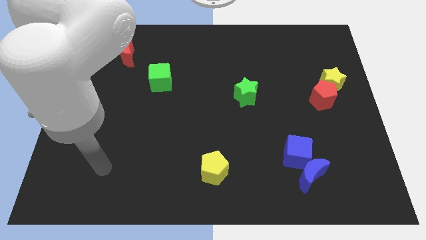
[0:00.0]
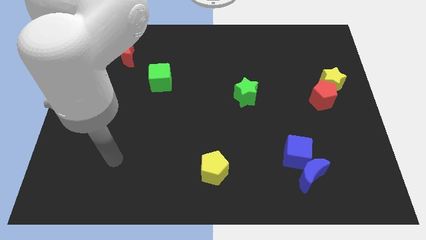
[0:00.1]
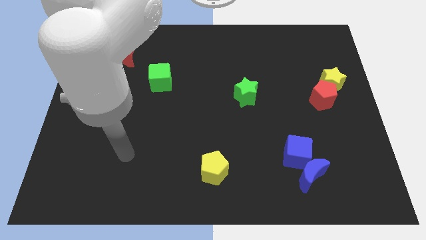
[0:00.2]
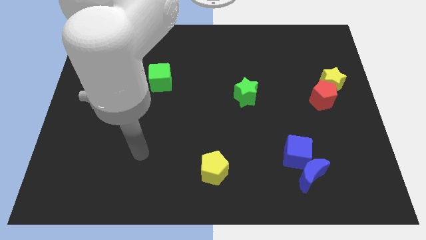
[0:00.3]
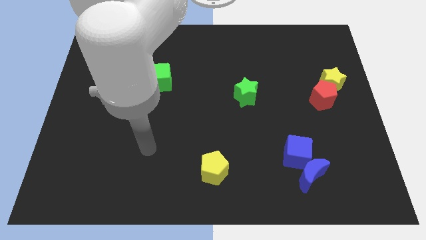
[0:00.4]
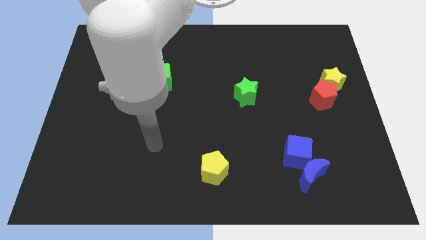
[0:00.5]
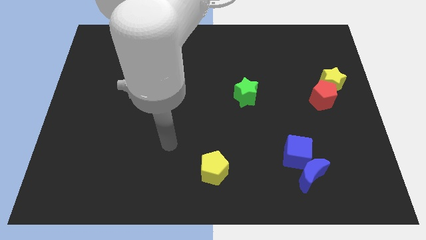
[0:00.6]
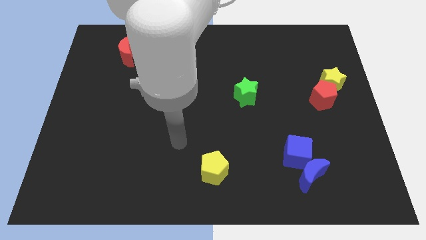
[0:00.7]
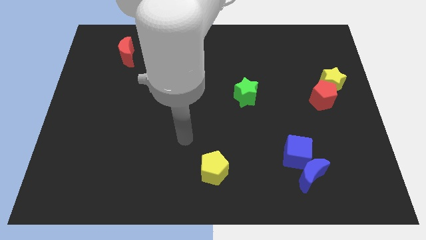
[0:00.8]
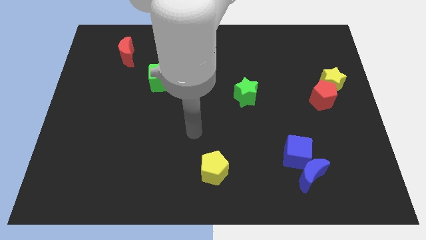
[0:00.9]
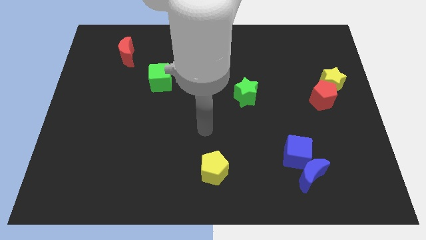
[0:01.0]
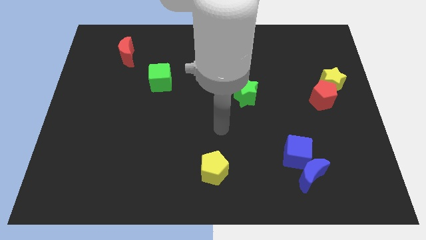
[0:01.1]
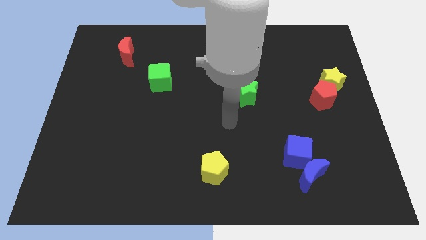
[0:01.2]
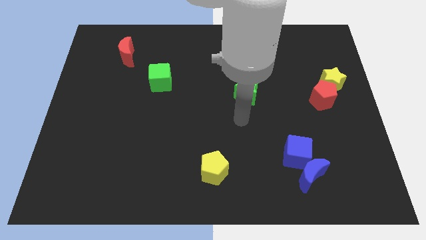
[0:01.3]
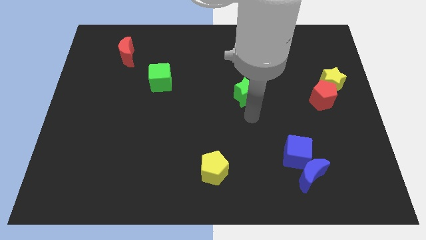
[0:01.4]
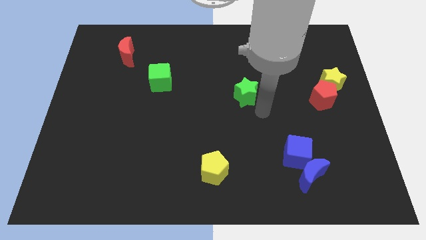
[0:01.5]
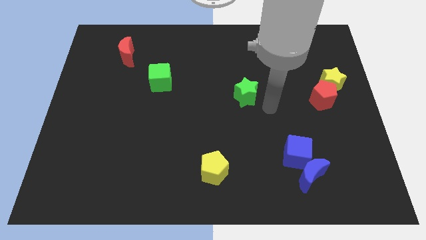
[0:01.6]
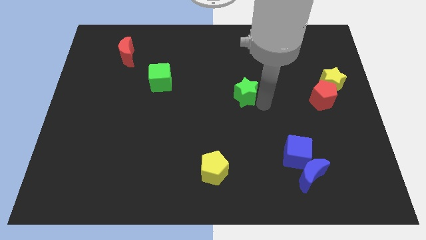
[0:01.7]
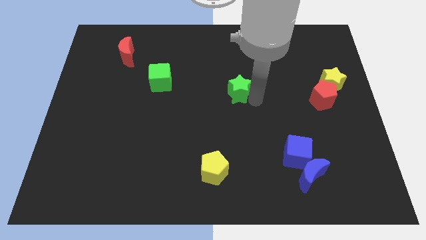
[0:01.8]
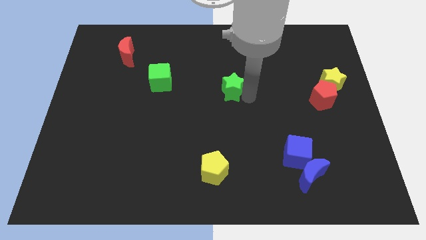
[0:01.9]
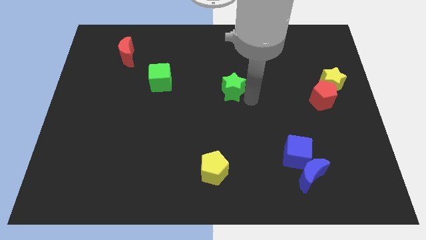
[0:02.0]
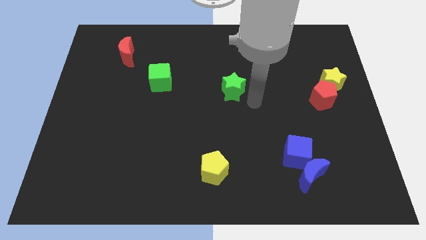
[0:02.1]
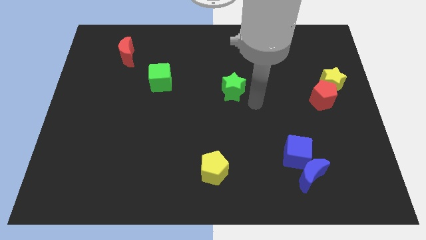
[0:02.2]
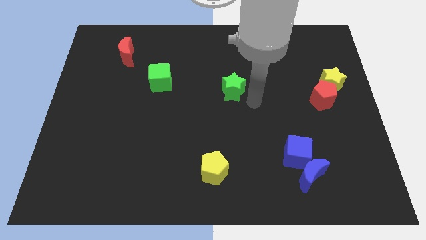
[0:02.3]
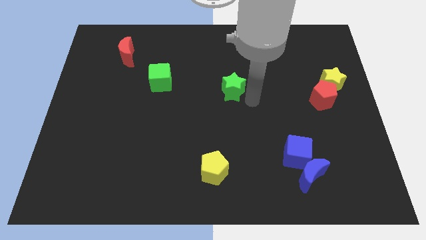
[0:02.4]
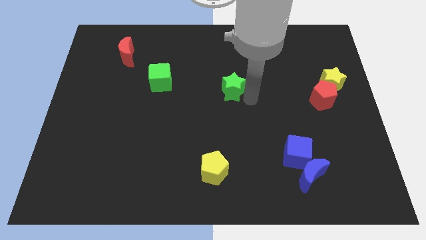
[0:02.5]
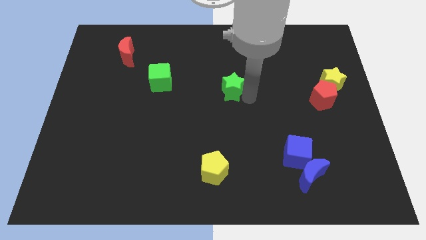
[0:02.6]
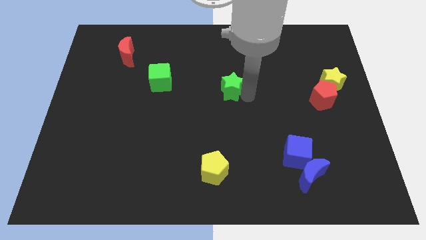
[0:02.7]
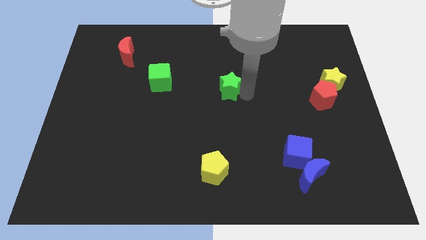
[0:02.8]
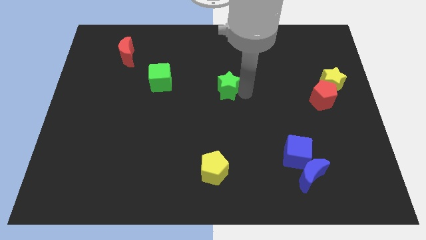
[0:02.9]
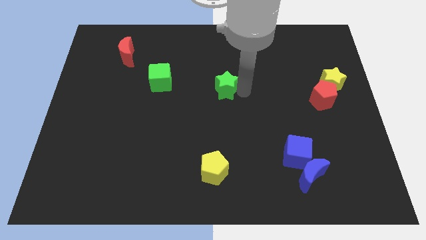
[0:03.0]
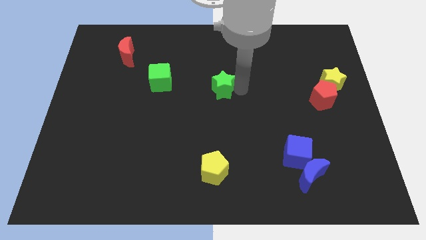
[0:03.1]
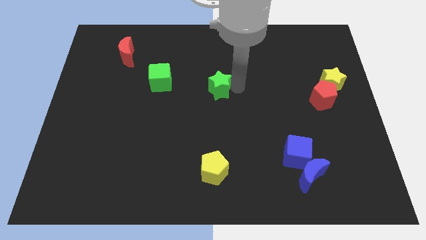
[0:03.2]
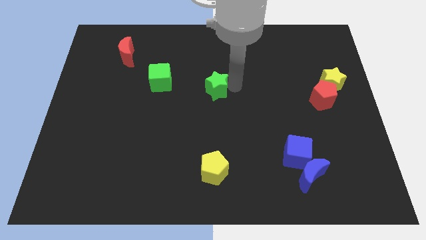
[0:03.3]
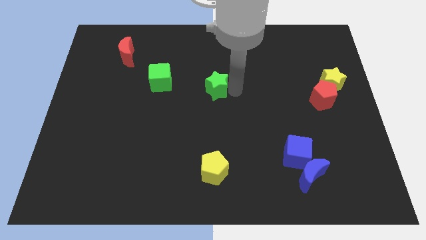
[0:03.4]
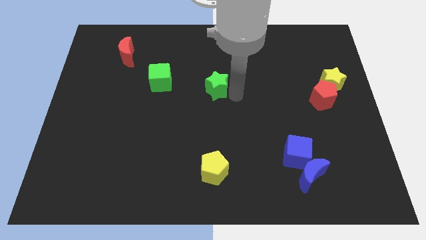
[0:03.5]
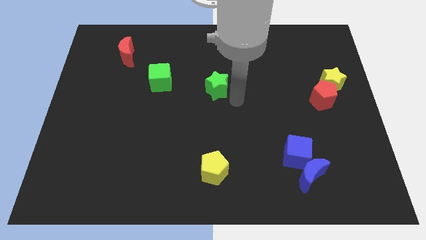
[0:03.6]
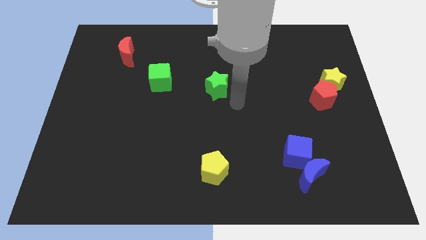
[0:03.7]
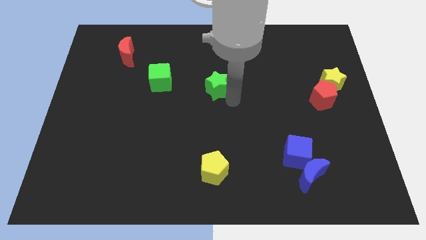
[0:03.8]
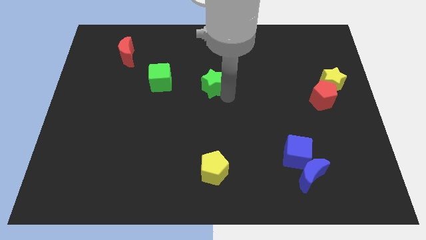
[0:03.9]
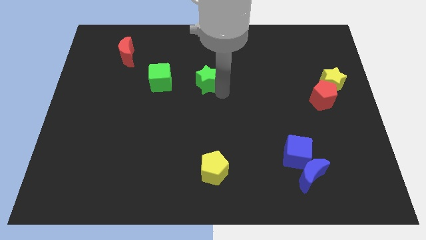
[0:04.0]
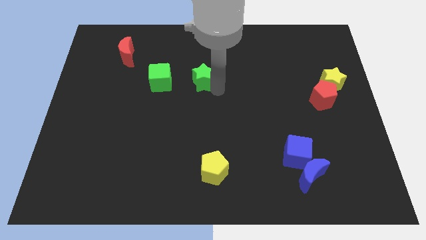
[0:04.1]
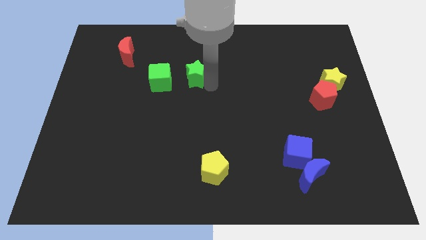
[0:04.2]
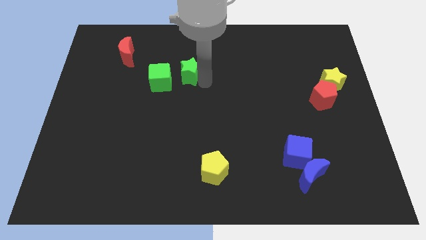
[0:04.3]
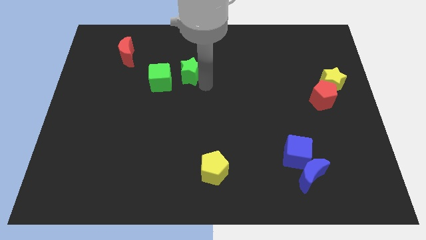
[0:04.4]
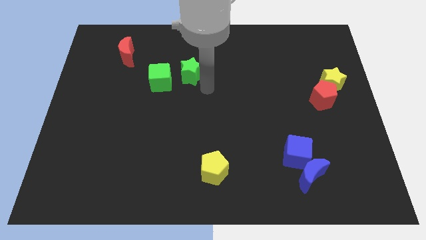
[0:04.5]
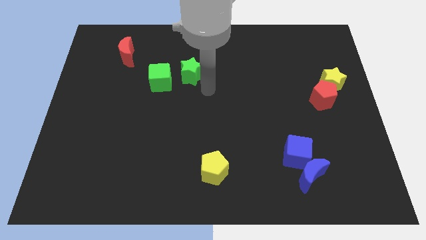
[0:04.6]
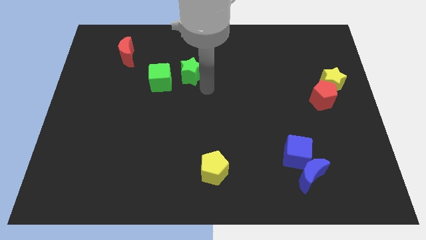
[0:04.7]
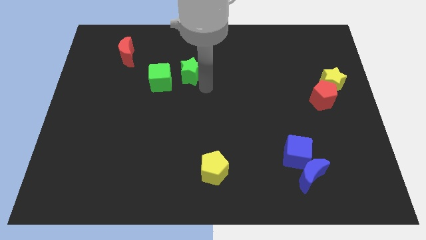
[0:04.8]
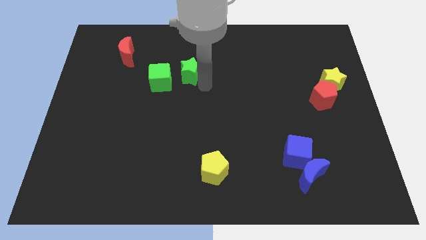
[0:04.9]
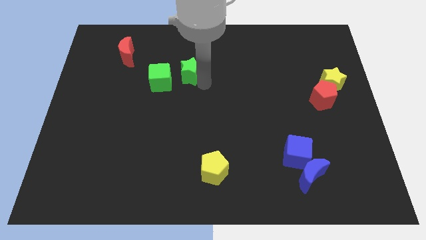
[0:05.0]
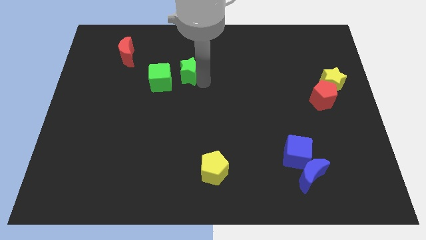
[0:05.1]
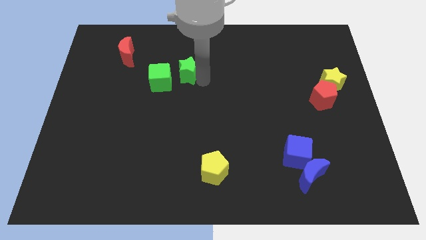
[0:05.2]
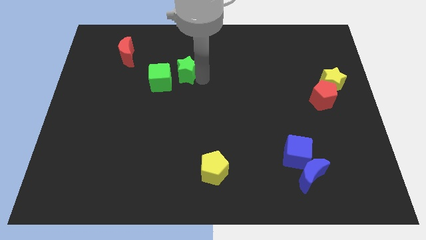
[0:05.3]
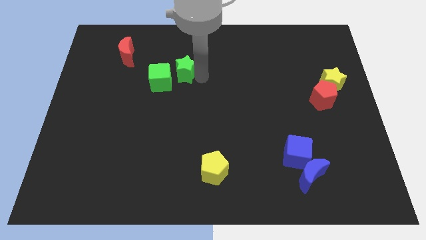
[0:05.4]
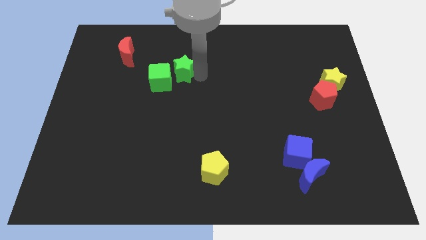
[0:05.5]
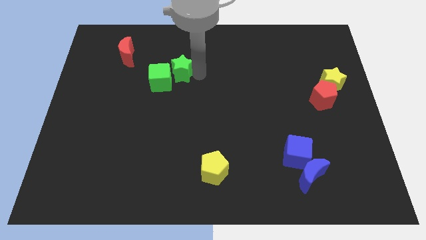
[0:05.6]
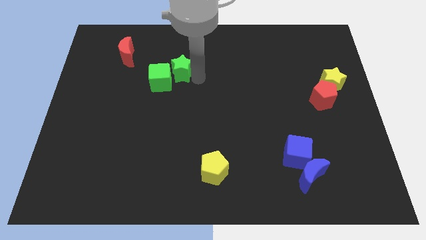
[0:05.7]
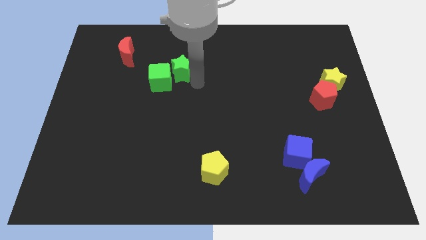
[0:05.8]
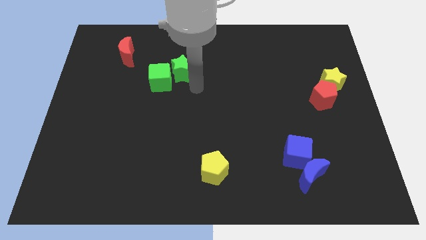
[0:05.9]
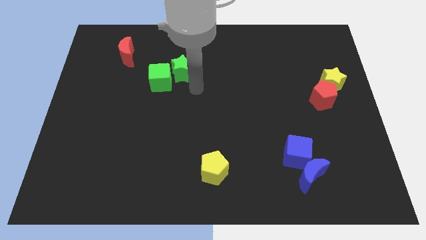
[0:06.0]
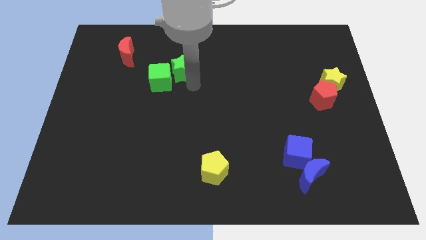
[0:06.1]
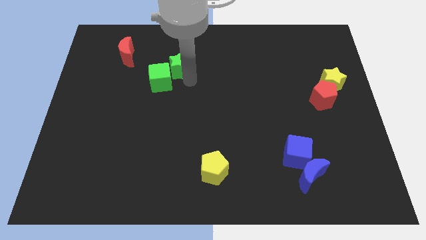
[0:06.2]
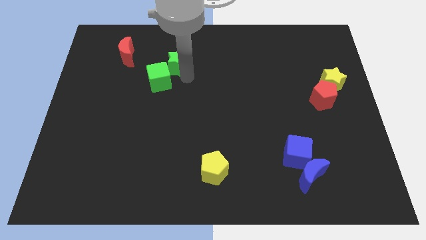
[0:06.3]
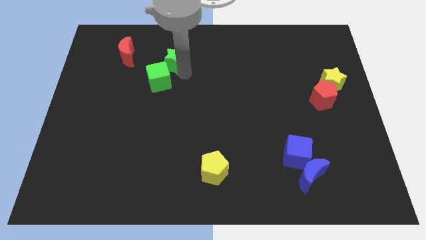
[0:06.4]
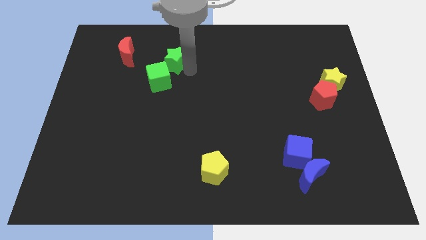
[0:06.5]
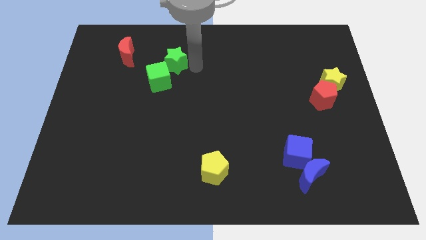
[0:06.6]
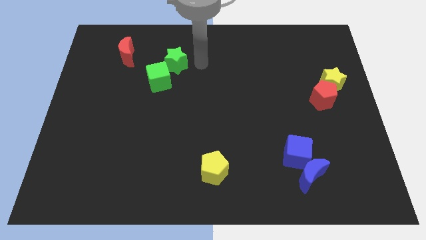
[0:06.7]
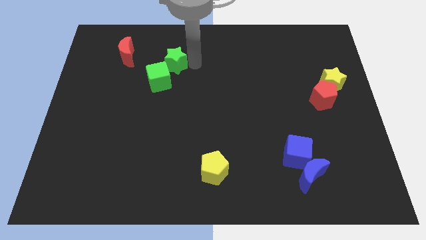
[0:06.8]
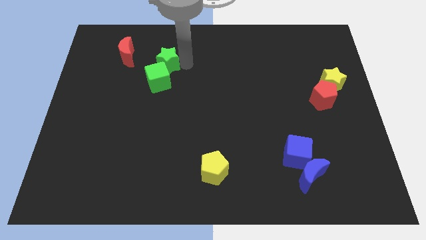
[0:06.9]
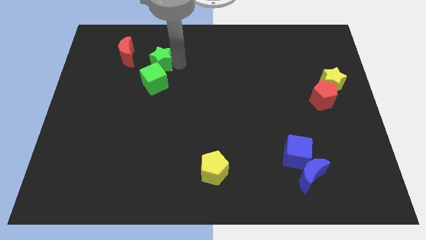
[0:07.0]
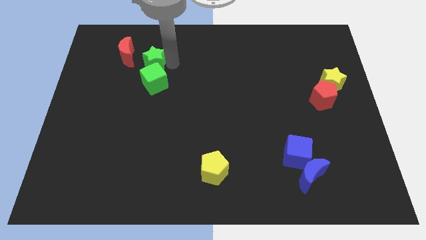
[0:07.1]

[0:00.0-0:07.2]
move the green star diagonally up and to the left of the green cube

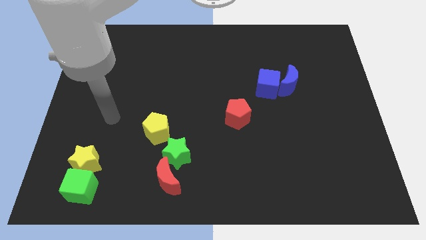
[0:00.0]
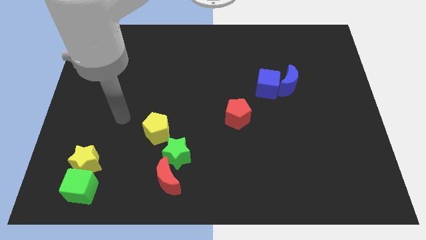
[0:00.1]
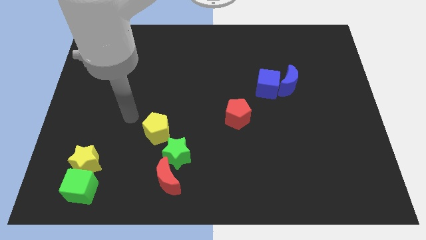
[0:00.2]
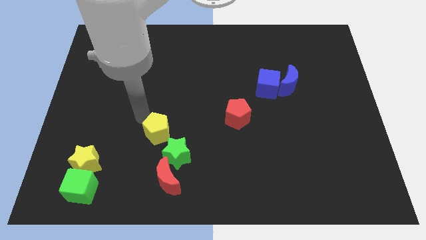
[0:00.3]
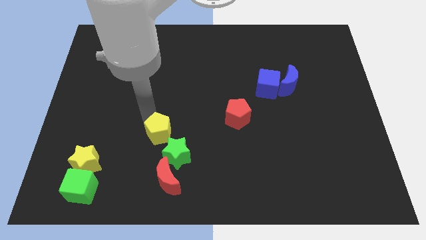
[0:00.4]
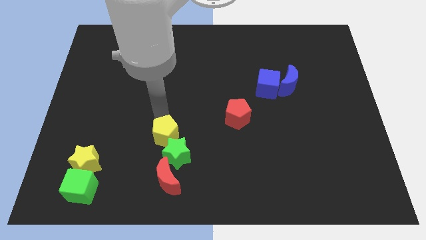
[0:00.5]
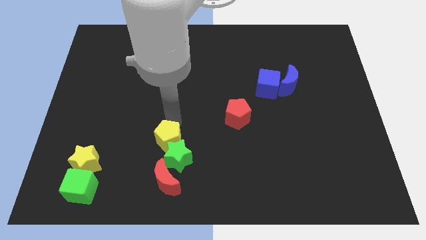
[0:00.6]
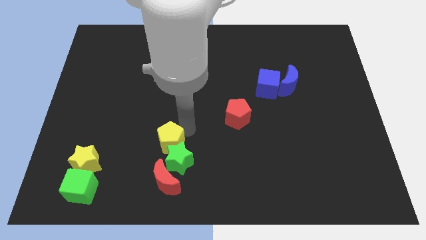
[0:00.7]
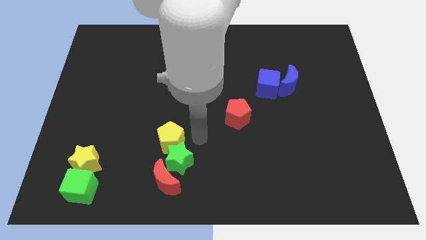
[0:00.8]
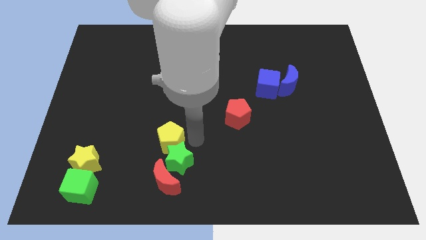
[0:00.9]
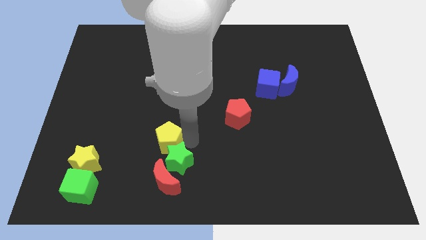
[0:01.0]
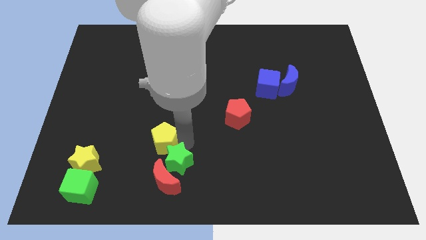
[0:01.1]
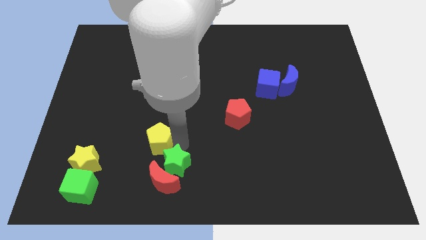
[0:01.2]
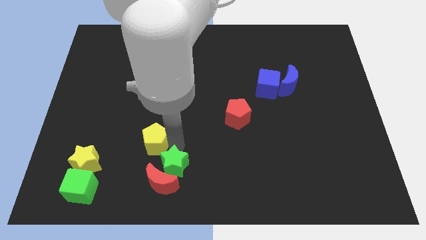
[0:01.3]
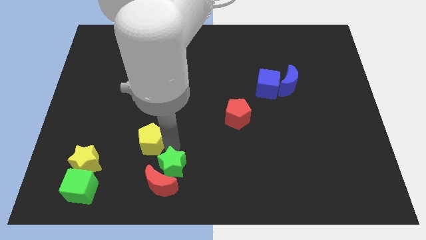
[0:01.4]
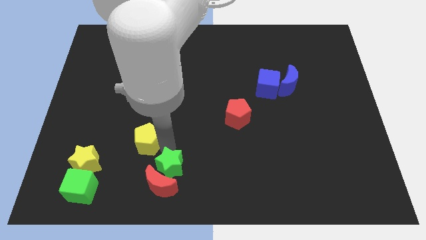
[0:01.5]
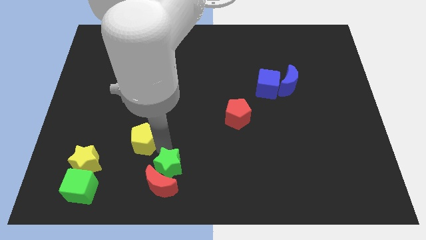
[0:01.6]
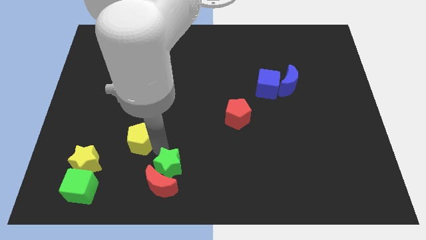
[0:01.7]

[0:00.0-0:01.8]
move the yellow pentagon to the top right of the yellow star
